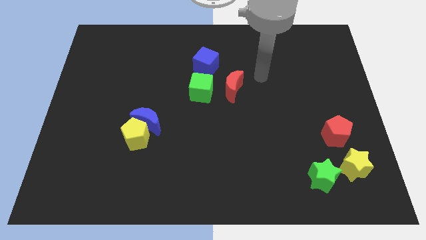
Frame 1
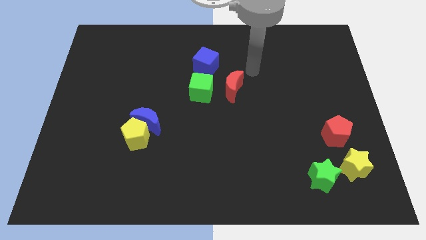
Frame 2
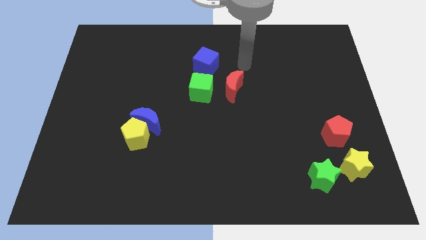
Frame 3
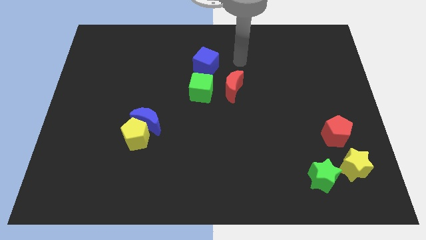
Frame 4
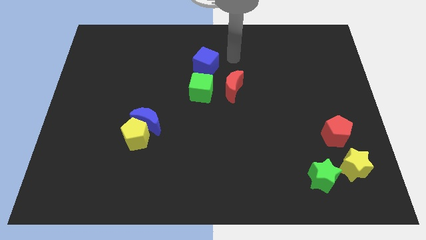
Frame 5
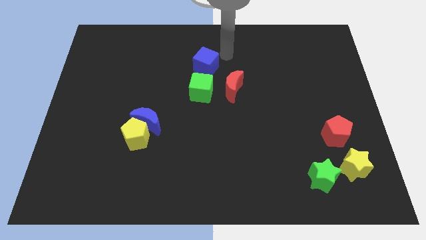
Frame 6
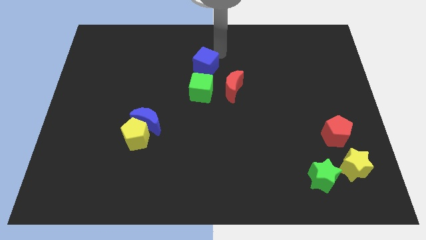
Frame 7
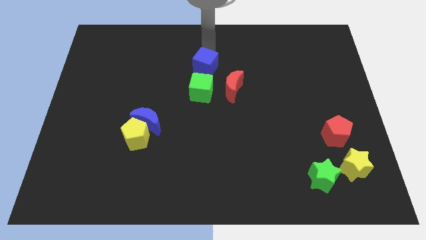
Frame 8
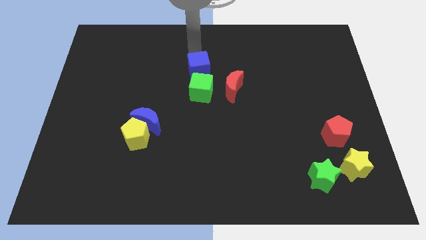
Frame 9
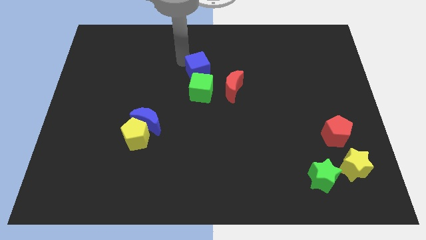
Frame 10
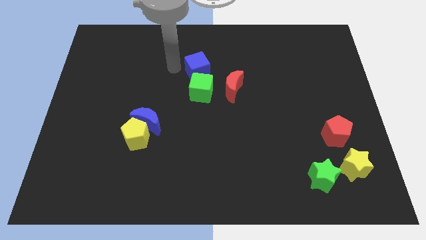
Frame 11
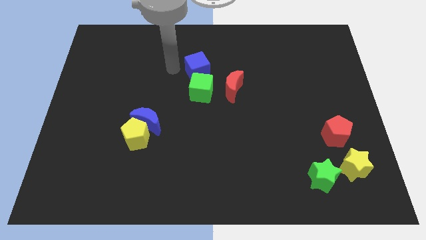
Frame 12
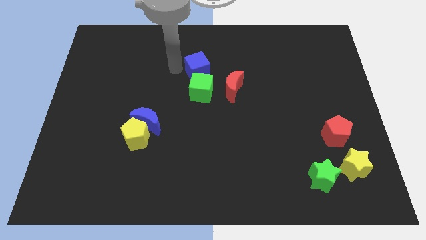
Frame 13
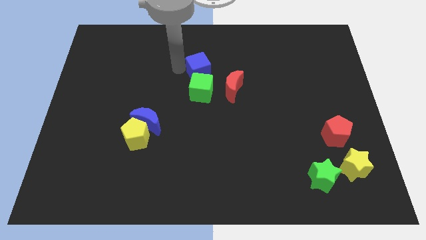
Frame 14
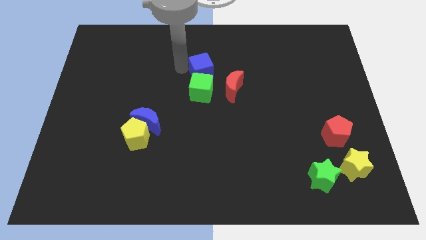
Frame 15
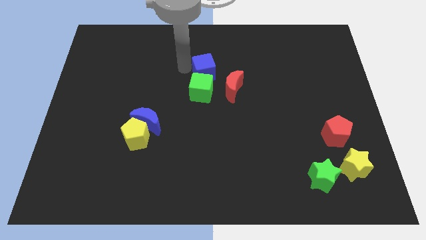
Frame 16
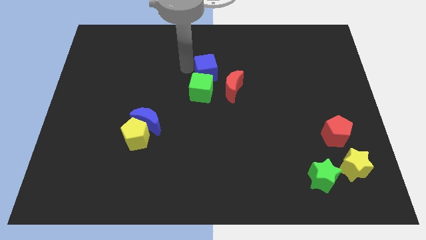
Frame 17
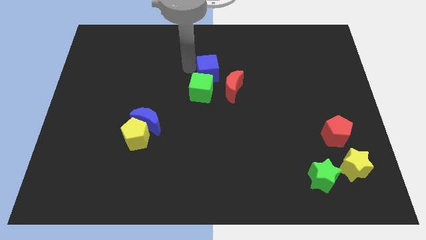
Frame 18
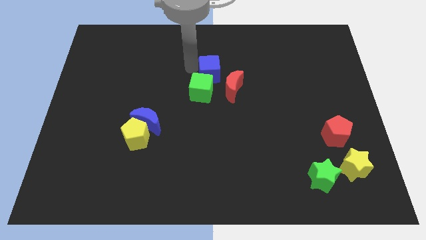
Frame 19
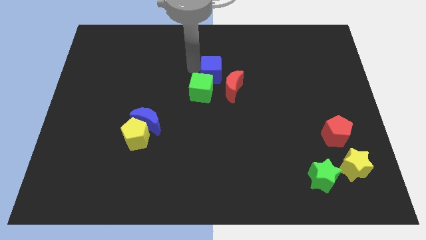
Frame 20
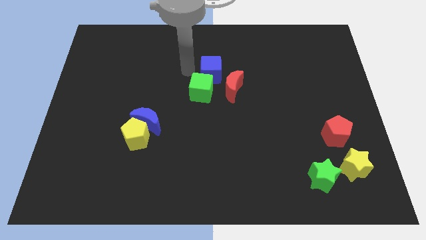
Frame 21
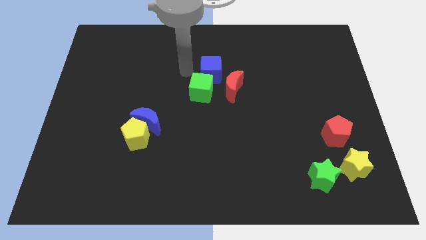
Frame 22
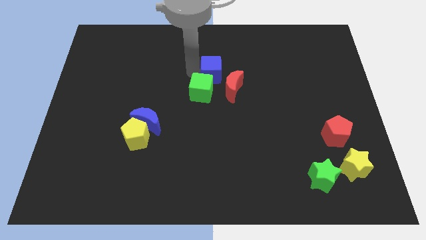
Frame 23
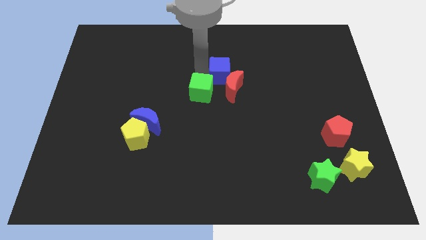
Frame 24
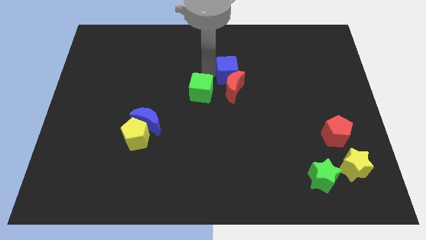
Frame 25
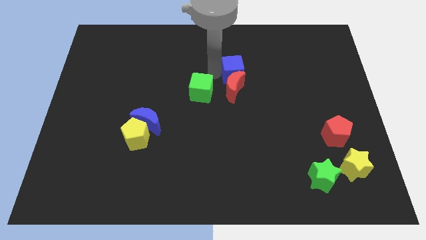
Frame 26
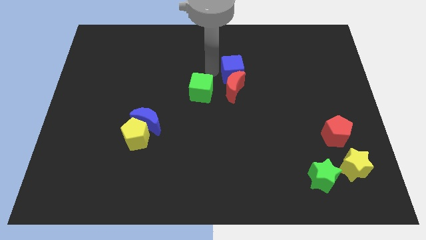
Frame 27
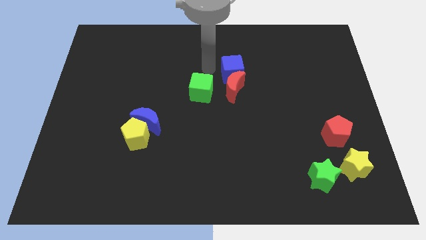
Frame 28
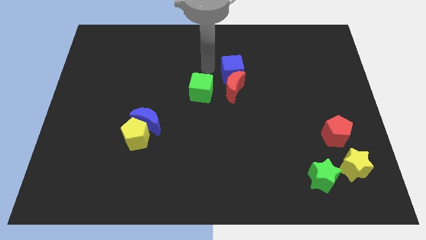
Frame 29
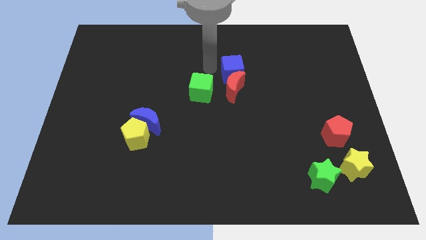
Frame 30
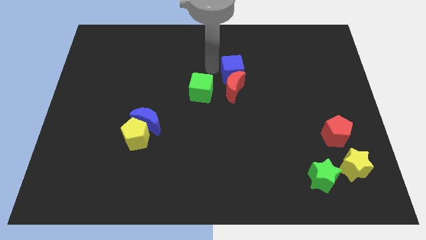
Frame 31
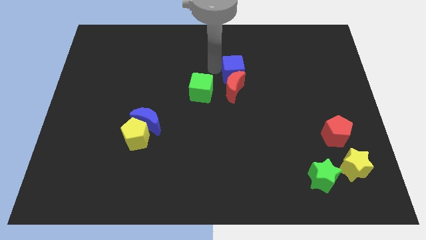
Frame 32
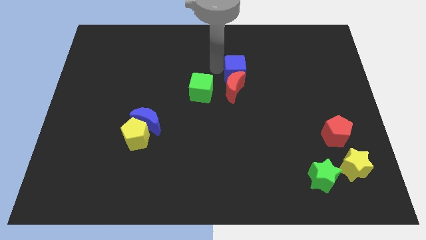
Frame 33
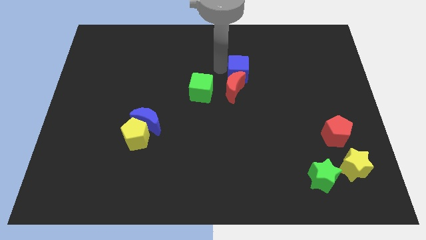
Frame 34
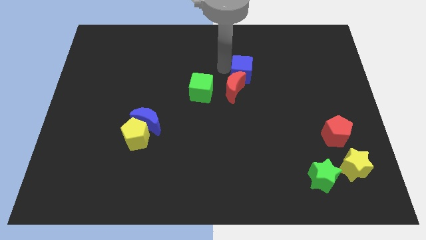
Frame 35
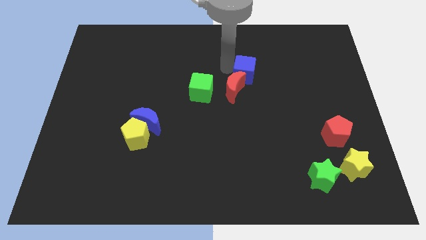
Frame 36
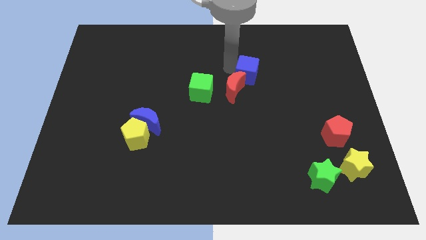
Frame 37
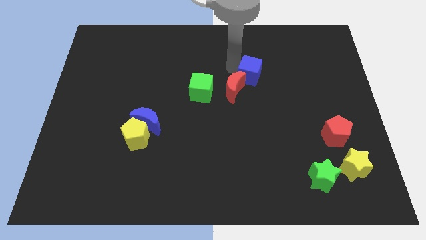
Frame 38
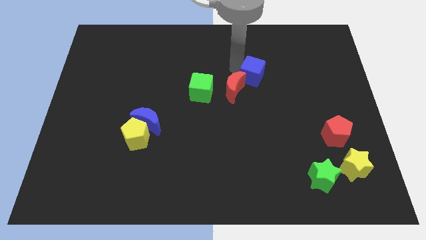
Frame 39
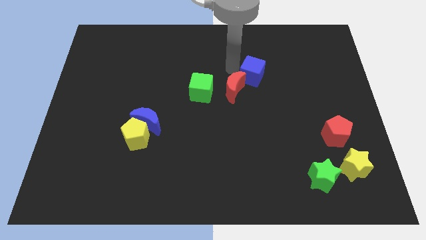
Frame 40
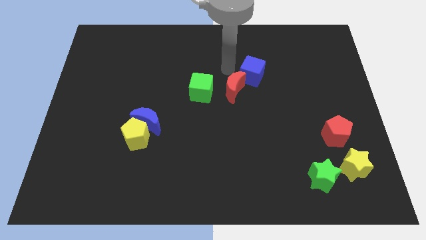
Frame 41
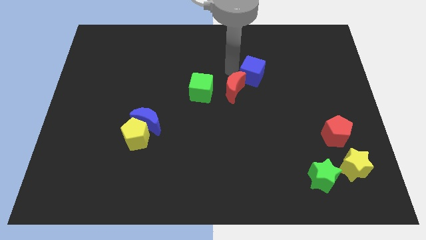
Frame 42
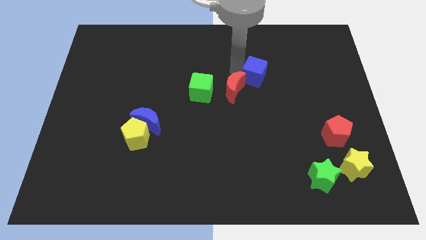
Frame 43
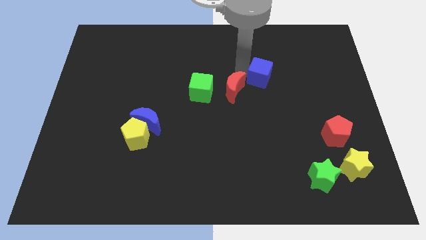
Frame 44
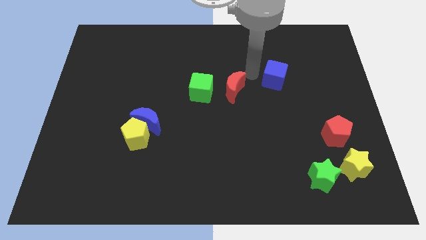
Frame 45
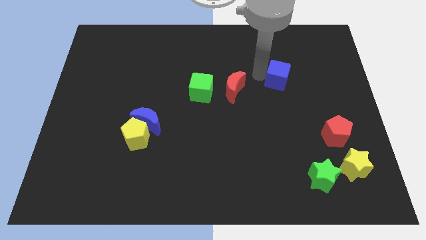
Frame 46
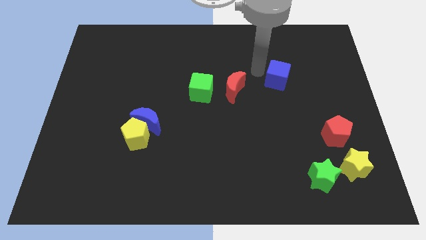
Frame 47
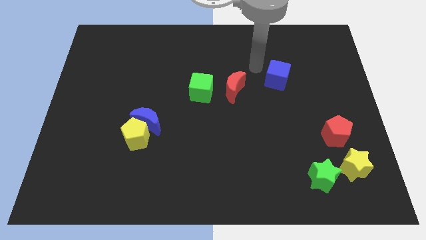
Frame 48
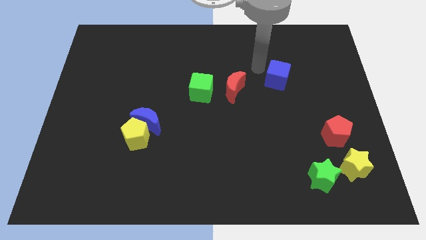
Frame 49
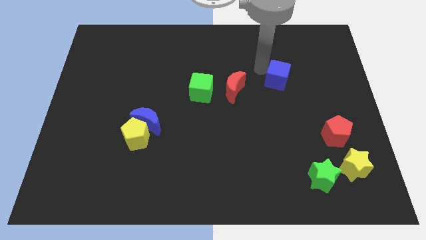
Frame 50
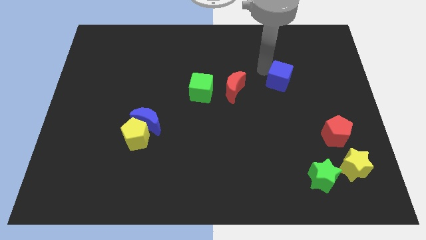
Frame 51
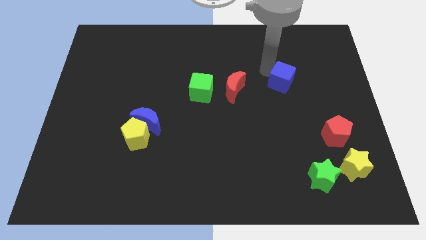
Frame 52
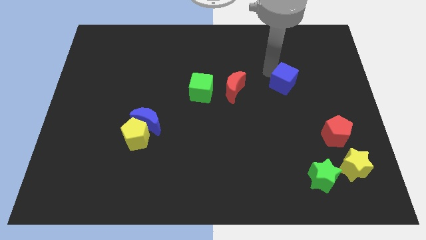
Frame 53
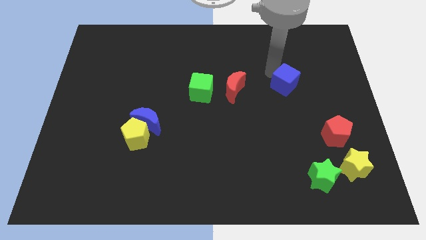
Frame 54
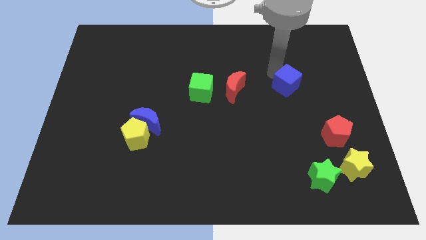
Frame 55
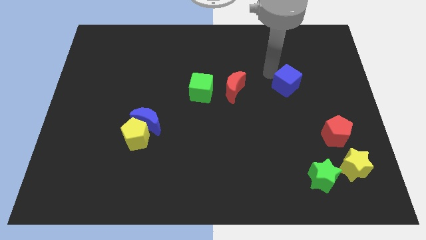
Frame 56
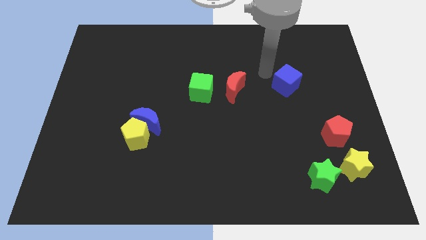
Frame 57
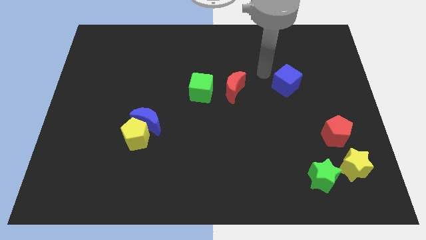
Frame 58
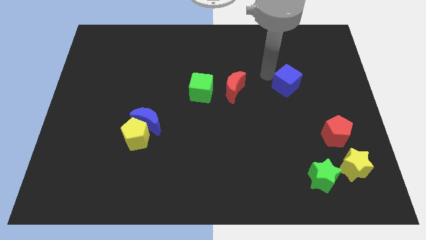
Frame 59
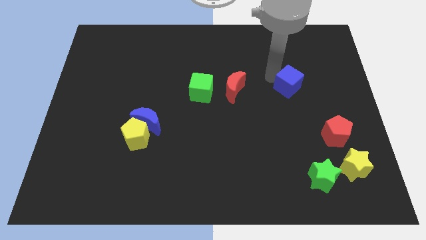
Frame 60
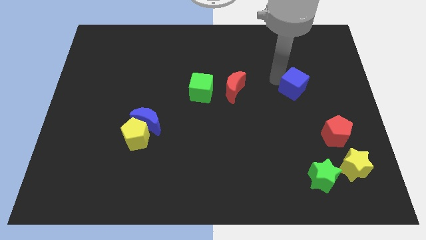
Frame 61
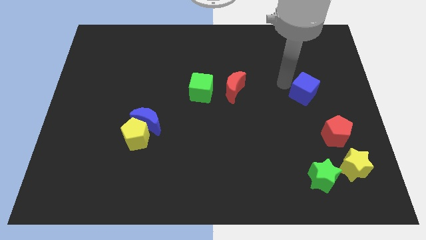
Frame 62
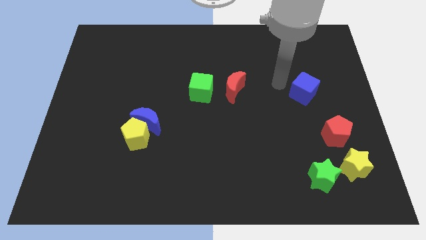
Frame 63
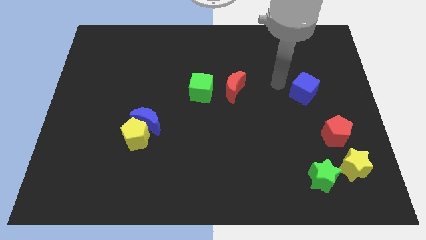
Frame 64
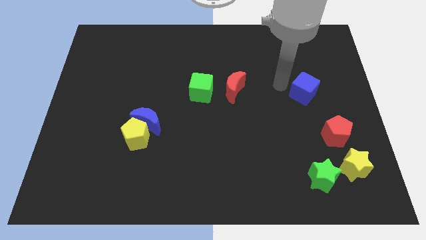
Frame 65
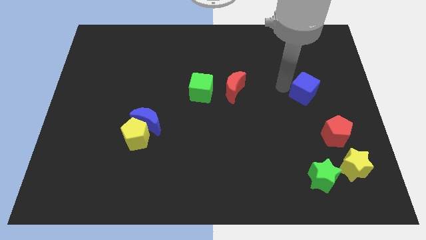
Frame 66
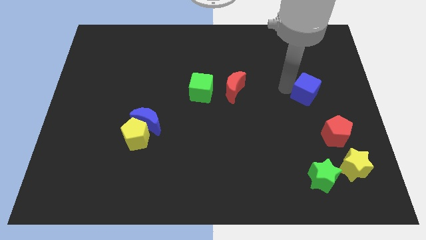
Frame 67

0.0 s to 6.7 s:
slide the blue cube above the red pentagon

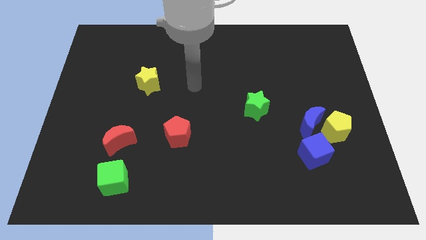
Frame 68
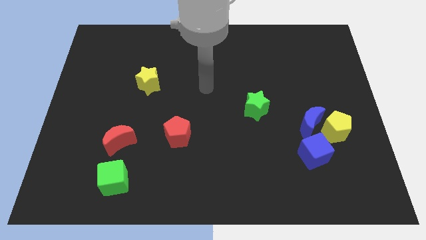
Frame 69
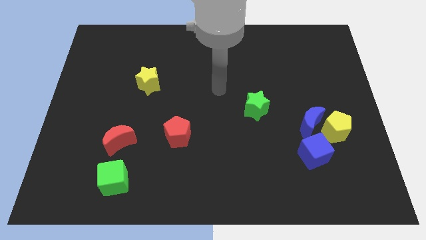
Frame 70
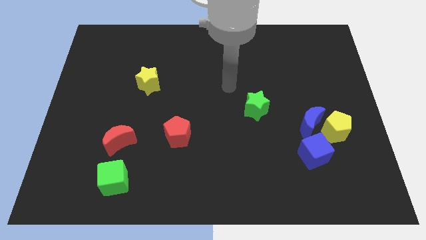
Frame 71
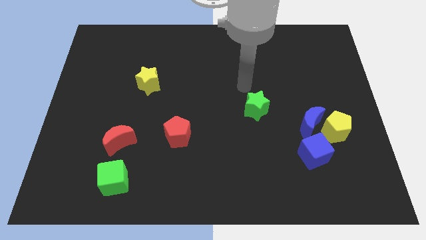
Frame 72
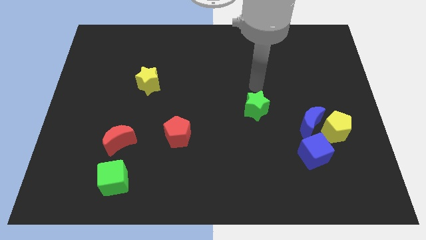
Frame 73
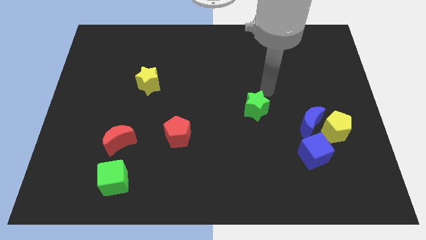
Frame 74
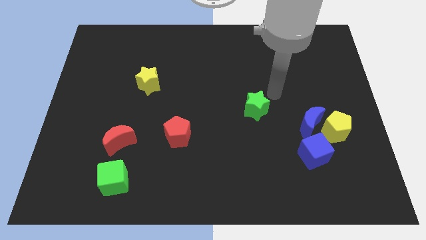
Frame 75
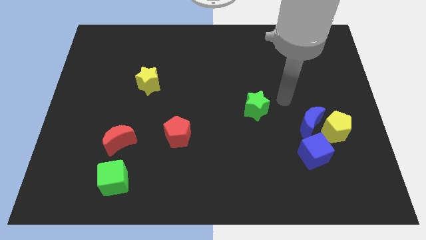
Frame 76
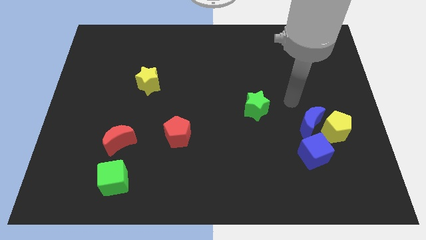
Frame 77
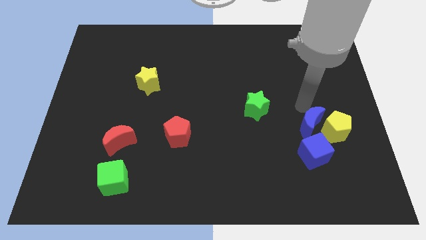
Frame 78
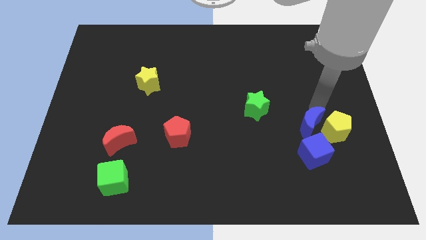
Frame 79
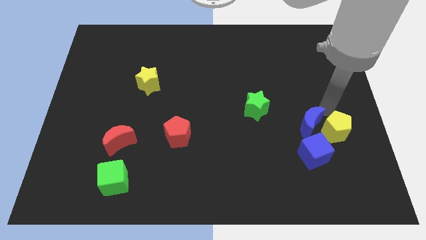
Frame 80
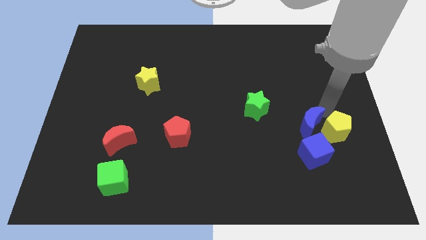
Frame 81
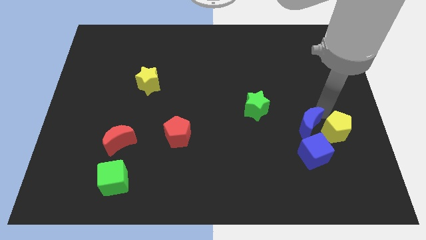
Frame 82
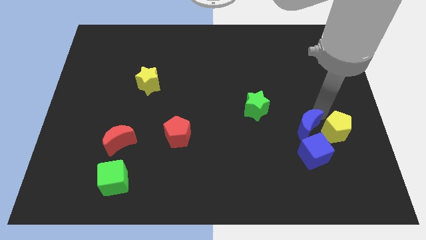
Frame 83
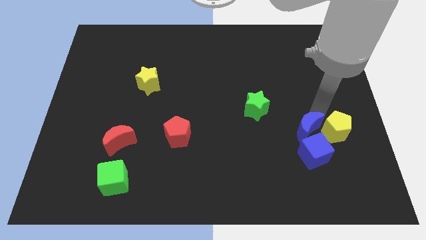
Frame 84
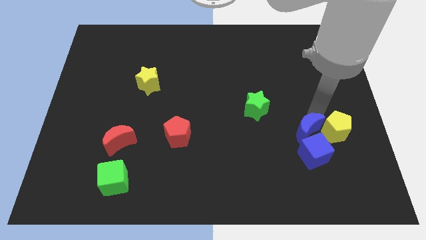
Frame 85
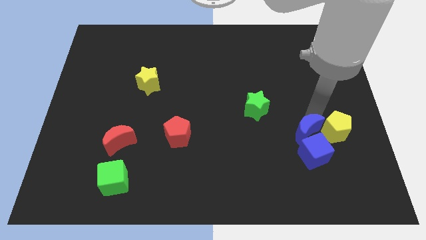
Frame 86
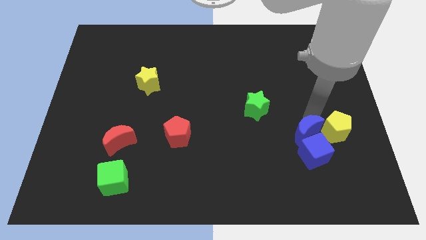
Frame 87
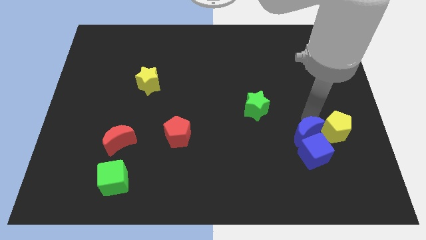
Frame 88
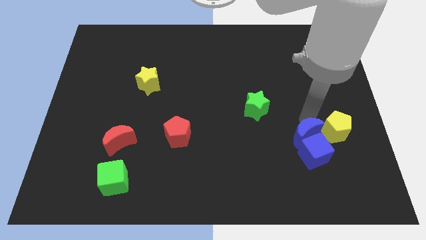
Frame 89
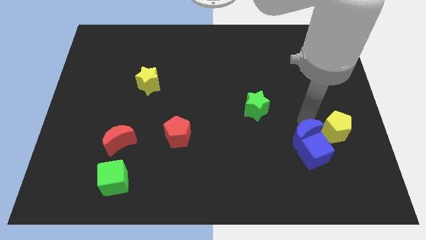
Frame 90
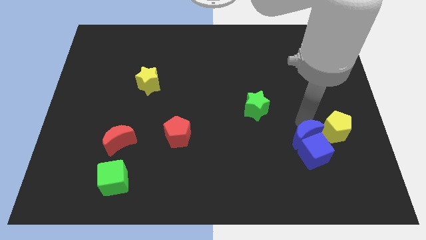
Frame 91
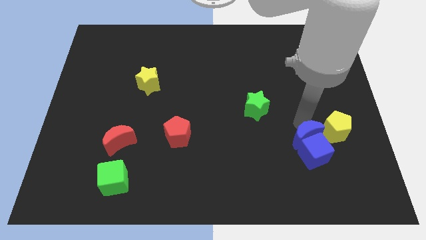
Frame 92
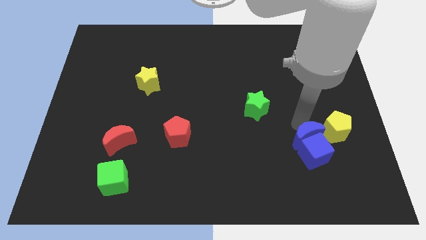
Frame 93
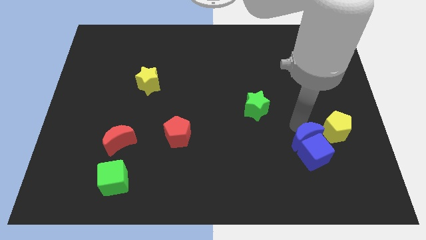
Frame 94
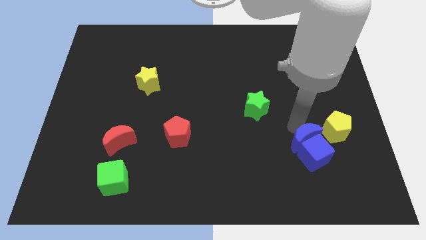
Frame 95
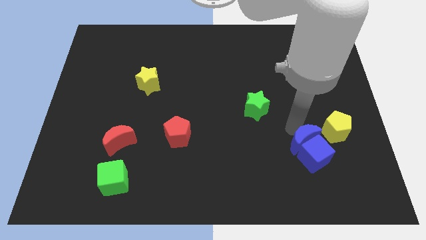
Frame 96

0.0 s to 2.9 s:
put the blue moon to the left side of the blue cube
